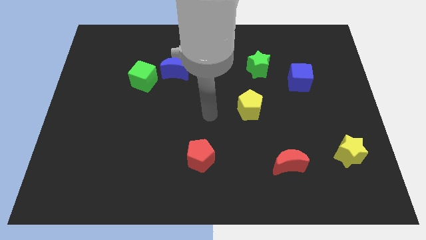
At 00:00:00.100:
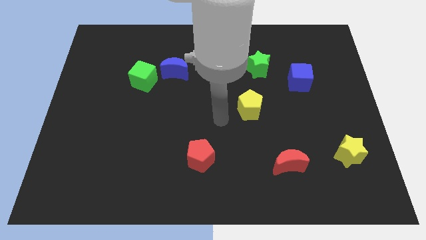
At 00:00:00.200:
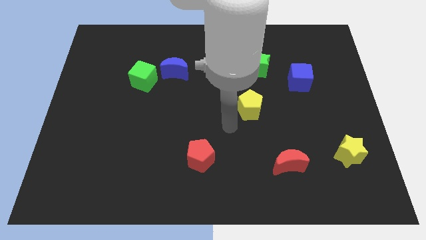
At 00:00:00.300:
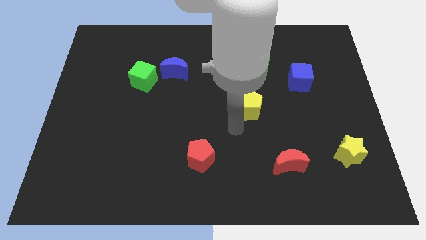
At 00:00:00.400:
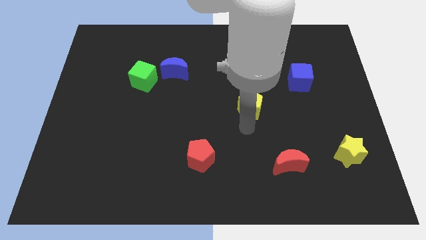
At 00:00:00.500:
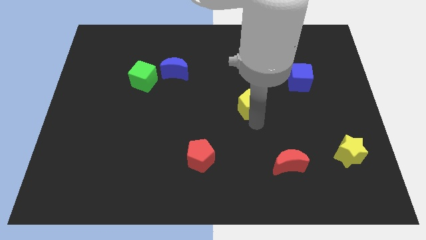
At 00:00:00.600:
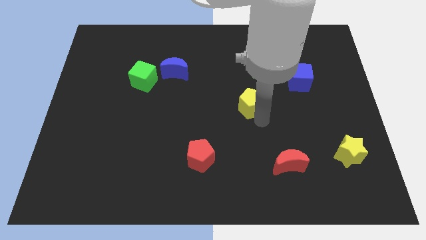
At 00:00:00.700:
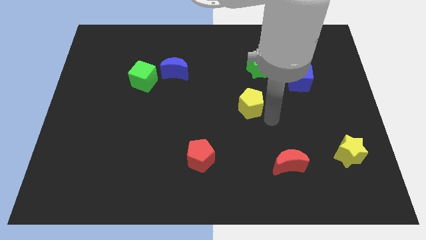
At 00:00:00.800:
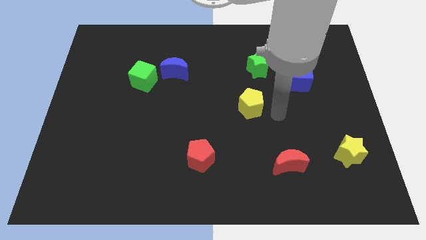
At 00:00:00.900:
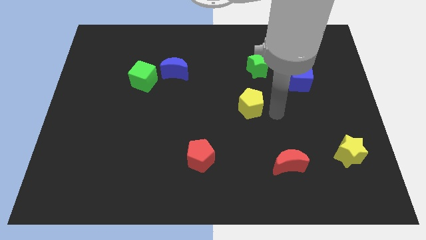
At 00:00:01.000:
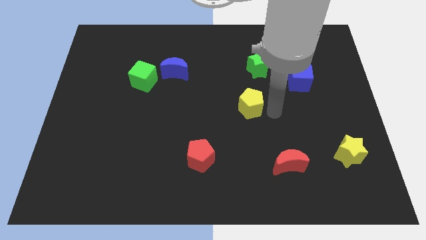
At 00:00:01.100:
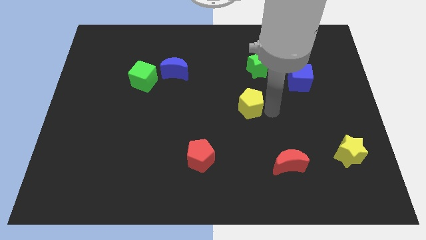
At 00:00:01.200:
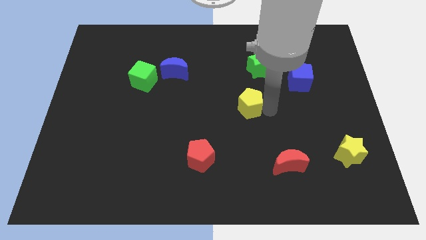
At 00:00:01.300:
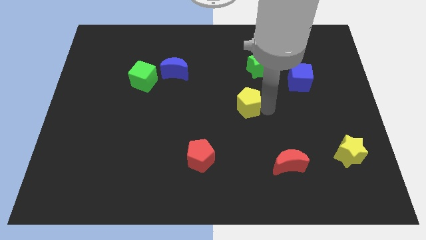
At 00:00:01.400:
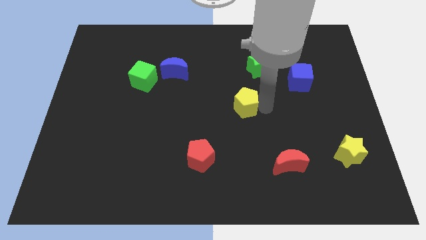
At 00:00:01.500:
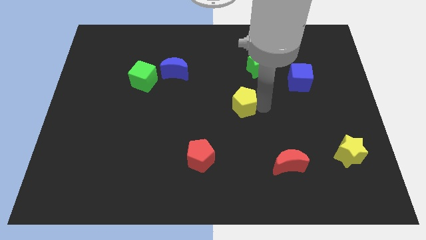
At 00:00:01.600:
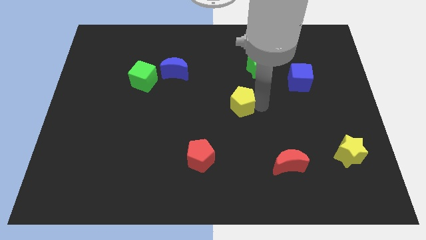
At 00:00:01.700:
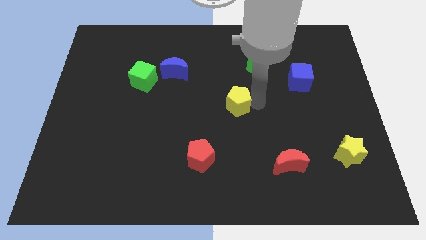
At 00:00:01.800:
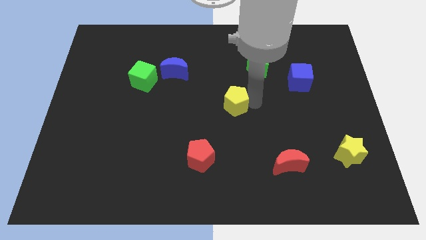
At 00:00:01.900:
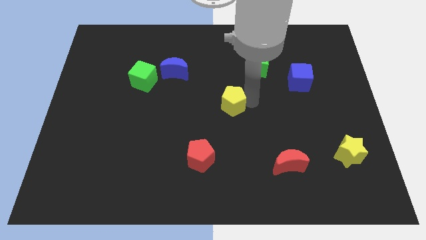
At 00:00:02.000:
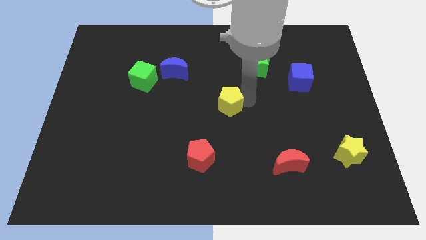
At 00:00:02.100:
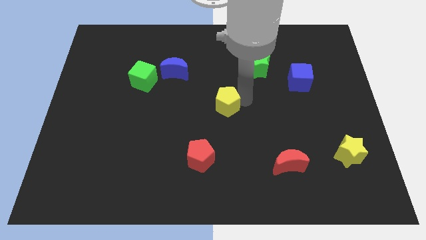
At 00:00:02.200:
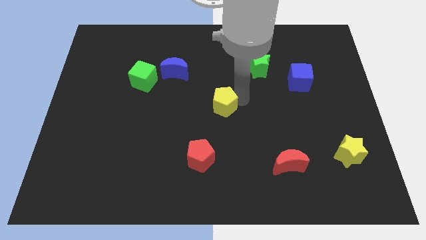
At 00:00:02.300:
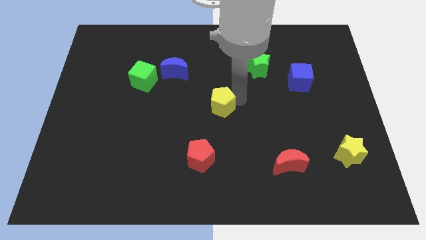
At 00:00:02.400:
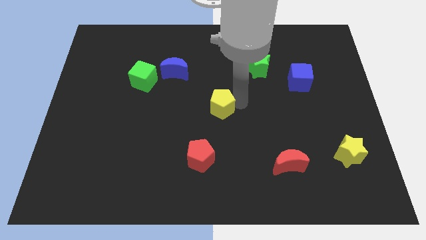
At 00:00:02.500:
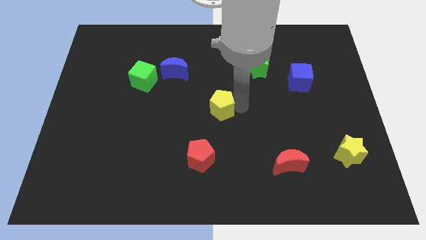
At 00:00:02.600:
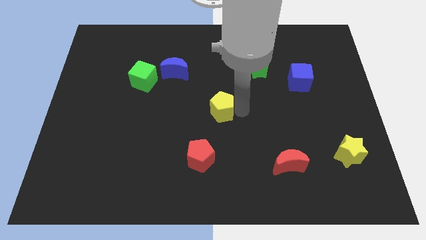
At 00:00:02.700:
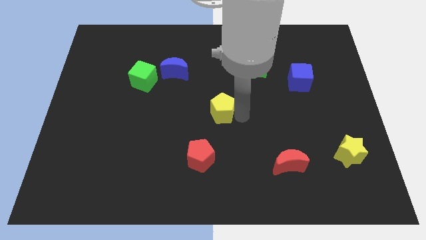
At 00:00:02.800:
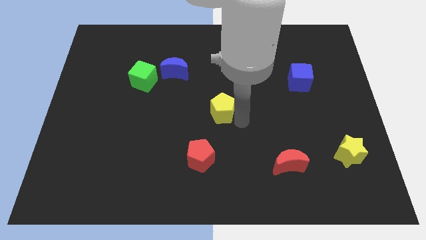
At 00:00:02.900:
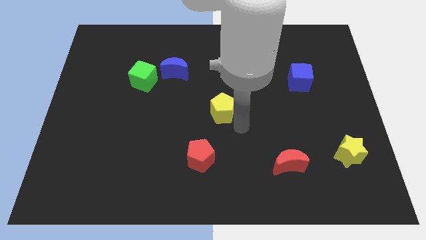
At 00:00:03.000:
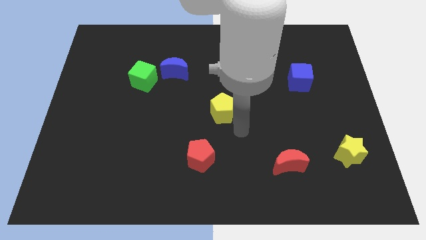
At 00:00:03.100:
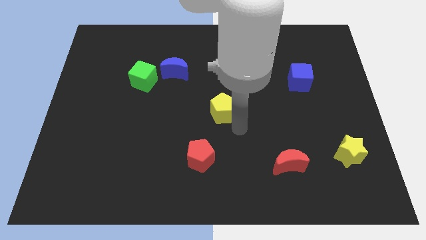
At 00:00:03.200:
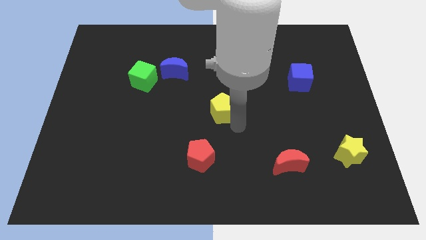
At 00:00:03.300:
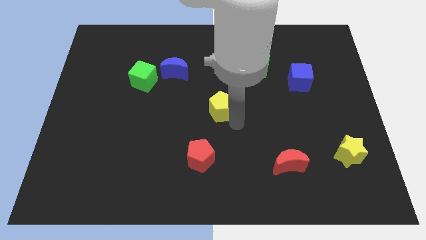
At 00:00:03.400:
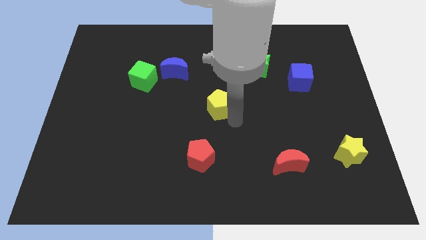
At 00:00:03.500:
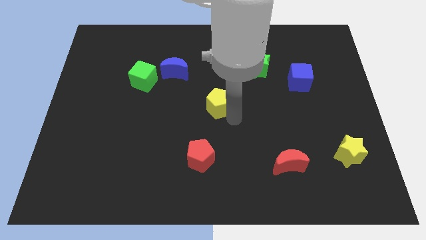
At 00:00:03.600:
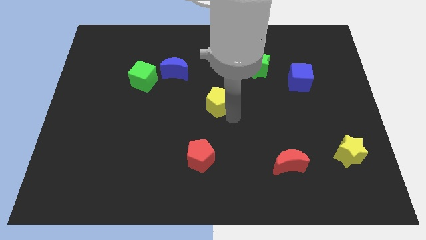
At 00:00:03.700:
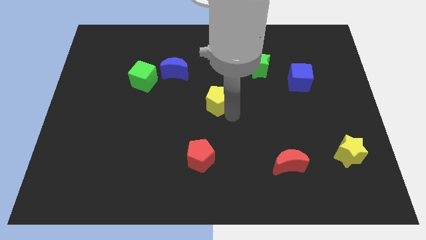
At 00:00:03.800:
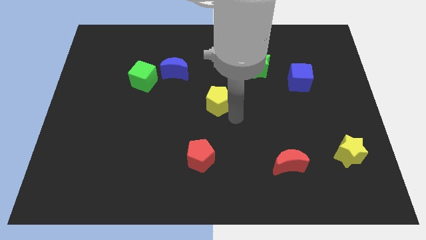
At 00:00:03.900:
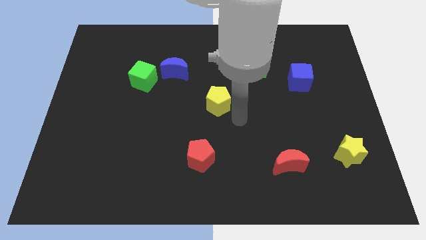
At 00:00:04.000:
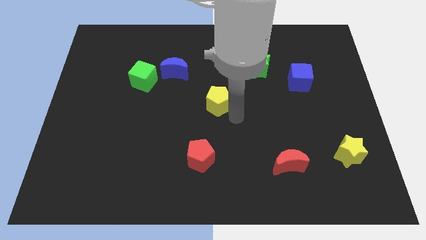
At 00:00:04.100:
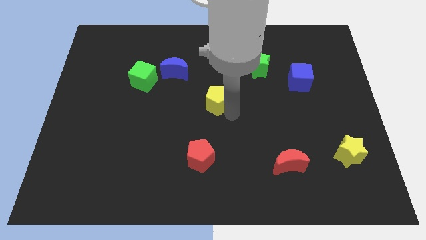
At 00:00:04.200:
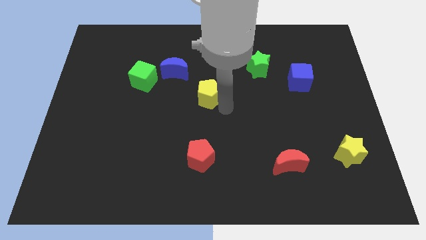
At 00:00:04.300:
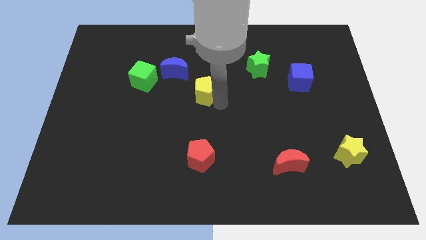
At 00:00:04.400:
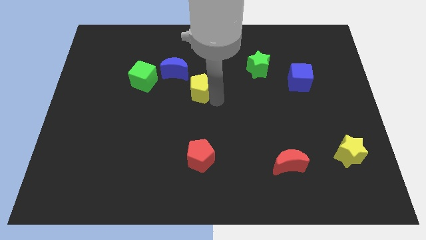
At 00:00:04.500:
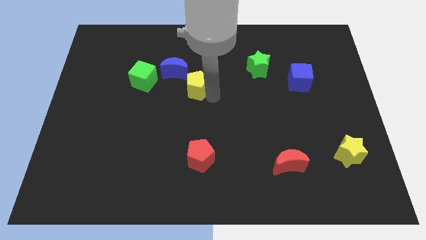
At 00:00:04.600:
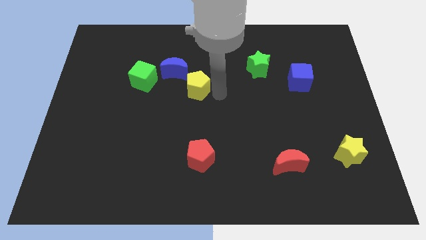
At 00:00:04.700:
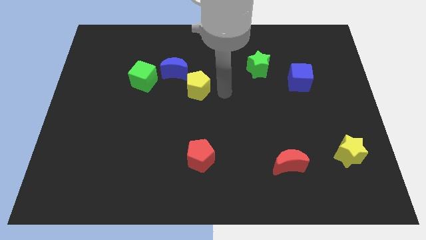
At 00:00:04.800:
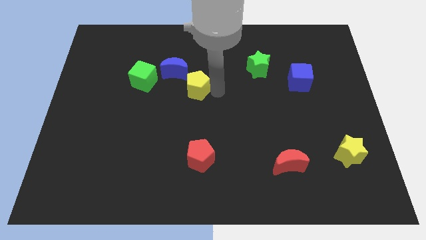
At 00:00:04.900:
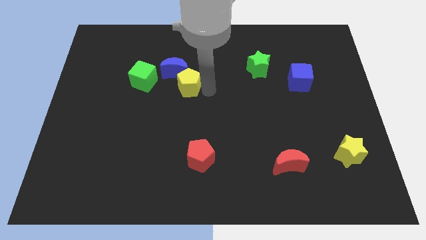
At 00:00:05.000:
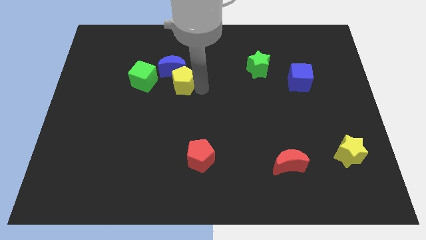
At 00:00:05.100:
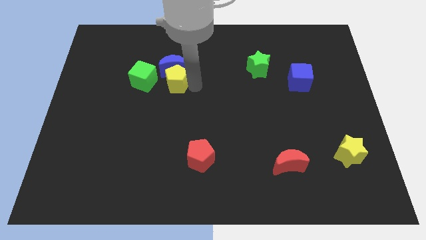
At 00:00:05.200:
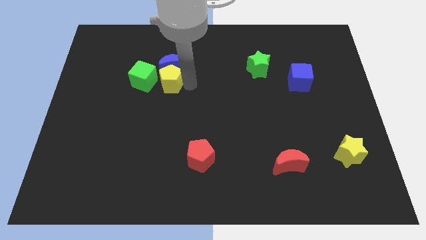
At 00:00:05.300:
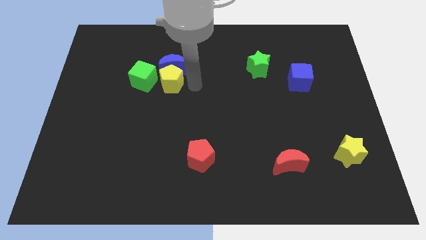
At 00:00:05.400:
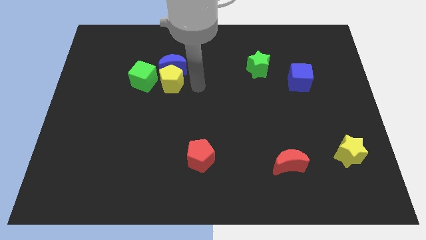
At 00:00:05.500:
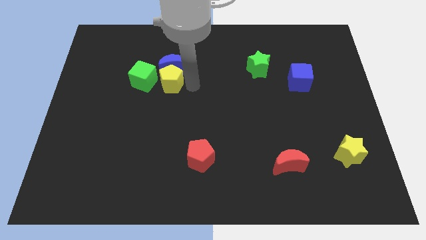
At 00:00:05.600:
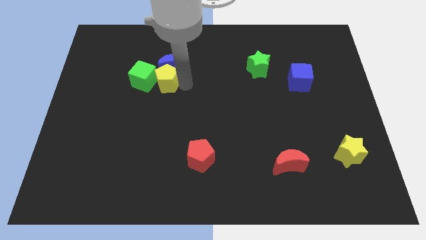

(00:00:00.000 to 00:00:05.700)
move the yellow pentagon close to the green cube
